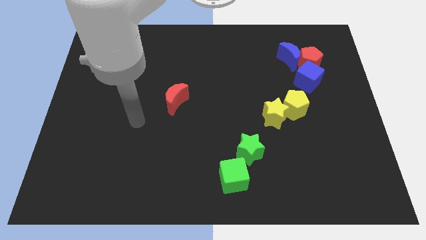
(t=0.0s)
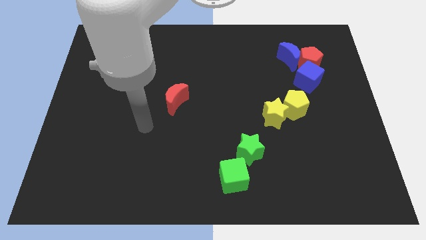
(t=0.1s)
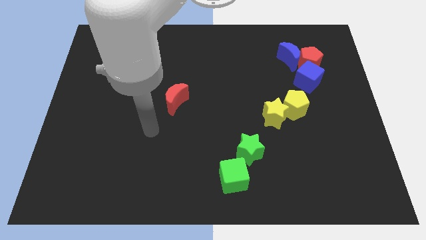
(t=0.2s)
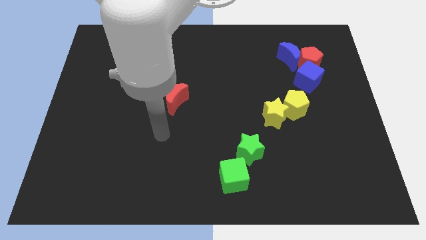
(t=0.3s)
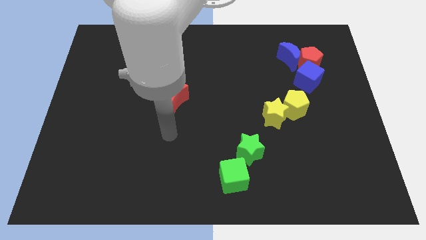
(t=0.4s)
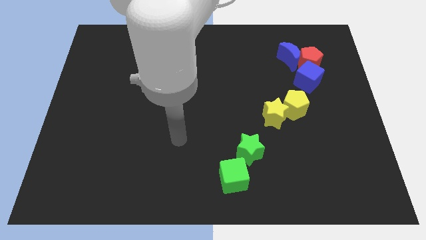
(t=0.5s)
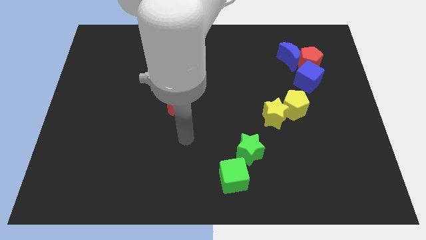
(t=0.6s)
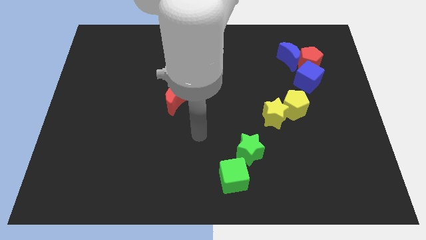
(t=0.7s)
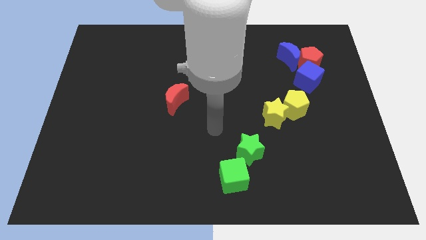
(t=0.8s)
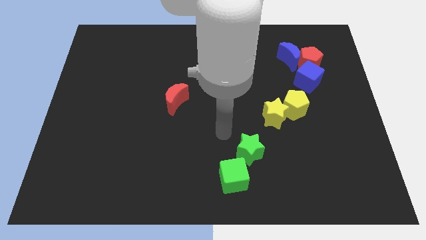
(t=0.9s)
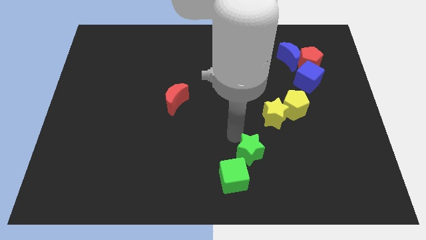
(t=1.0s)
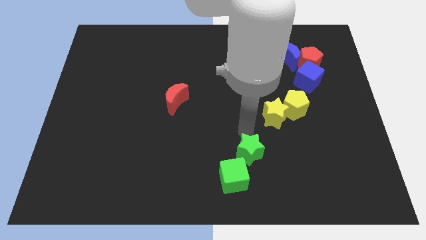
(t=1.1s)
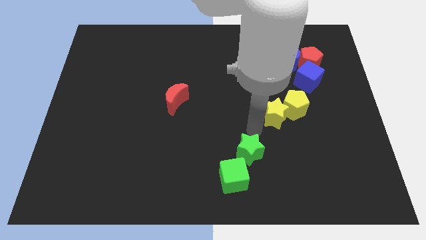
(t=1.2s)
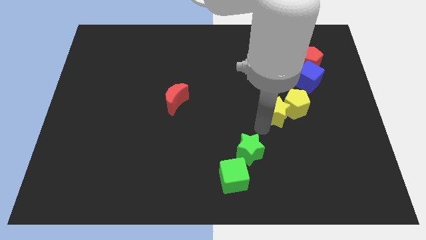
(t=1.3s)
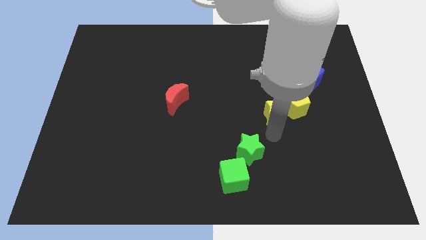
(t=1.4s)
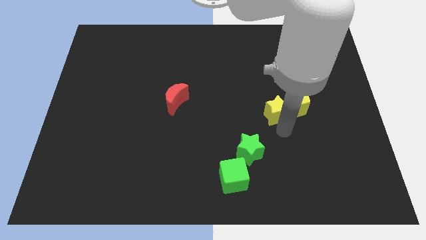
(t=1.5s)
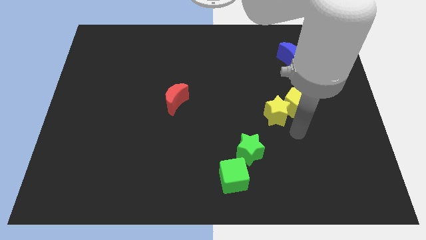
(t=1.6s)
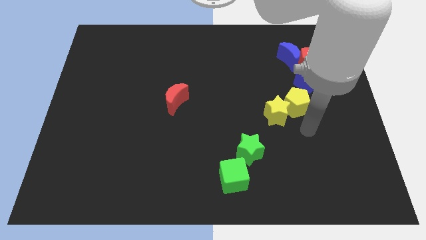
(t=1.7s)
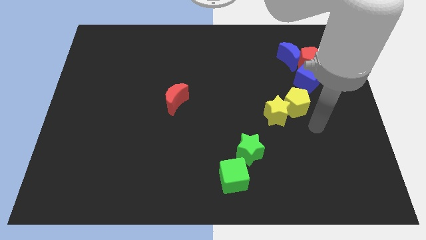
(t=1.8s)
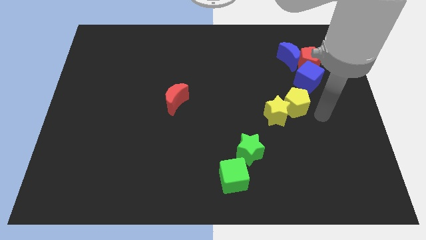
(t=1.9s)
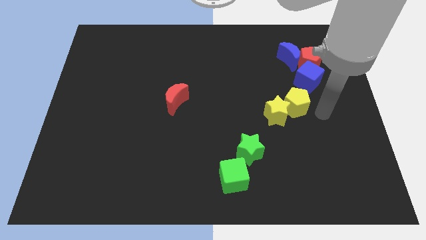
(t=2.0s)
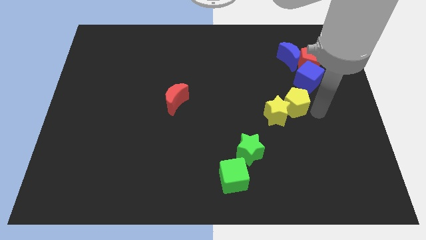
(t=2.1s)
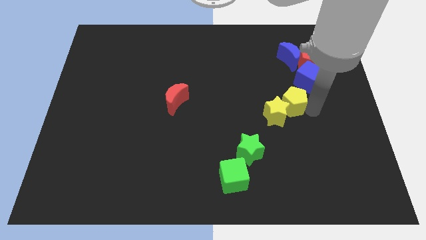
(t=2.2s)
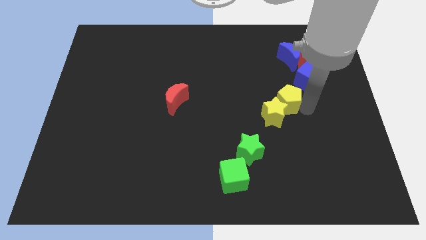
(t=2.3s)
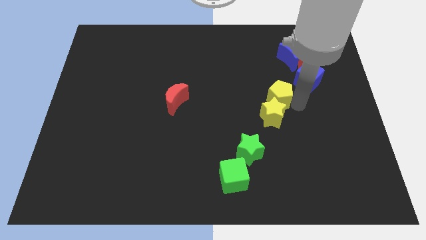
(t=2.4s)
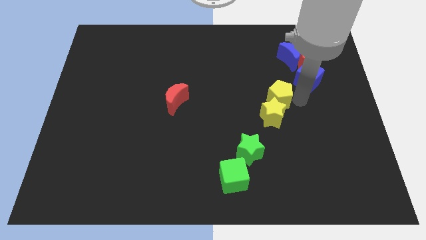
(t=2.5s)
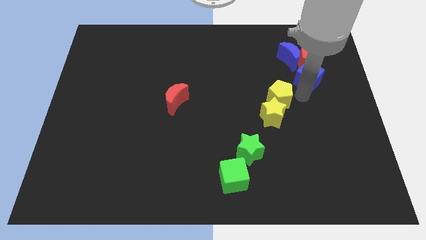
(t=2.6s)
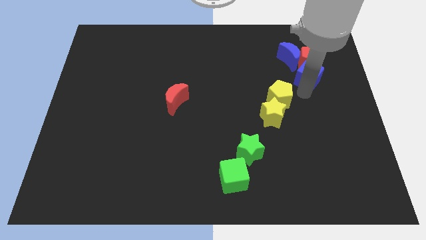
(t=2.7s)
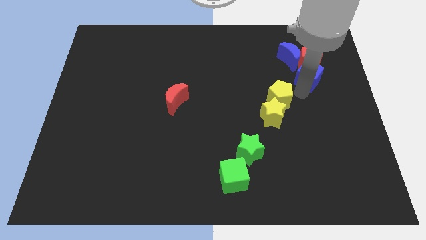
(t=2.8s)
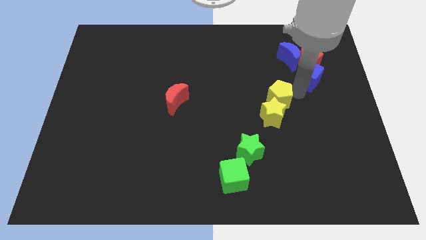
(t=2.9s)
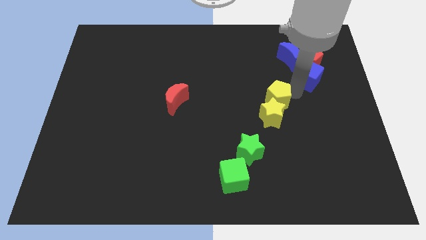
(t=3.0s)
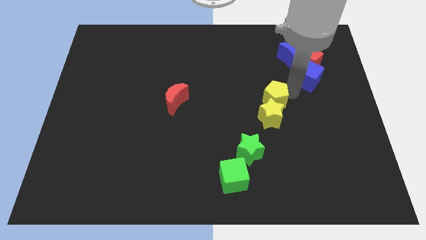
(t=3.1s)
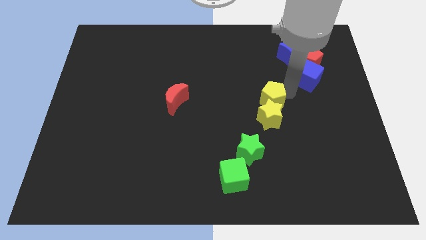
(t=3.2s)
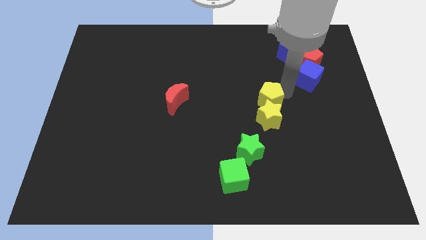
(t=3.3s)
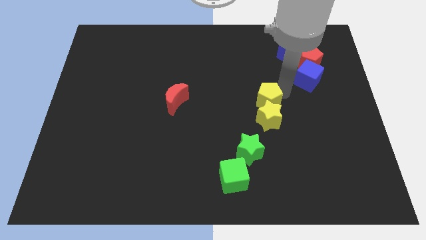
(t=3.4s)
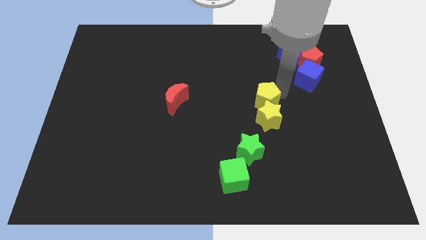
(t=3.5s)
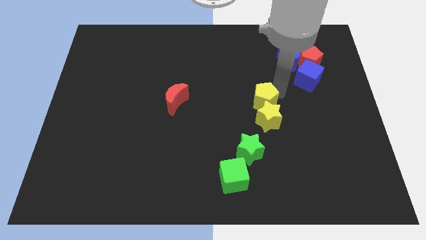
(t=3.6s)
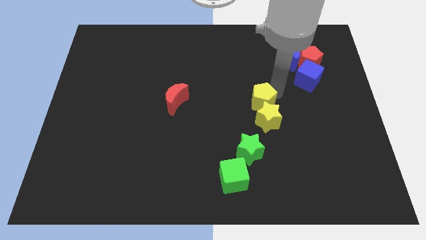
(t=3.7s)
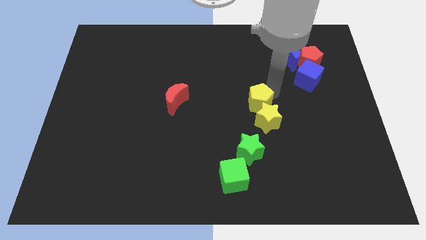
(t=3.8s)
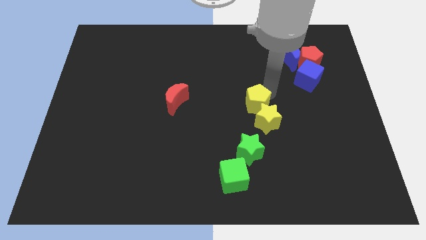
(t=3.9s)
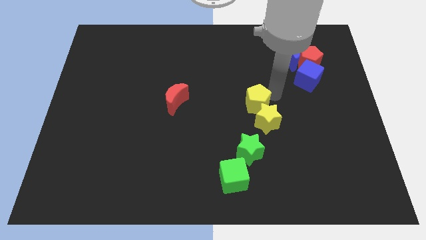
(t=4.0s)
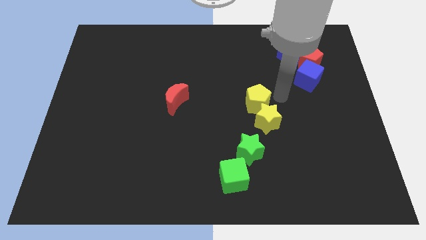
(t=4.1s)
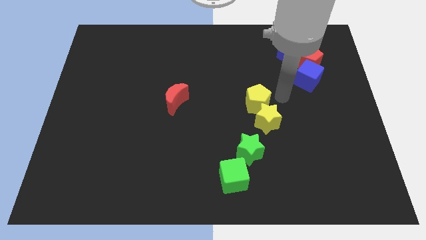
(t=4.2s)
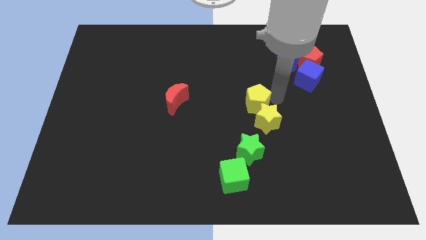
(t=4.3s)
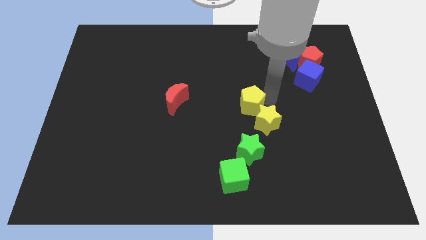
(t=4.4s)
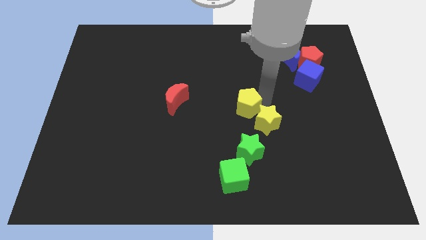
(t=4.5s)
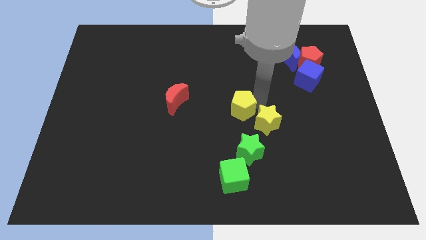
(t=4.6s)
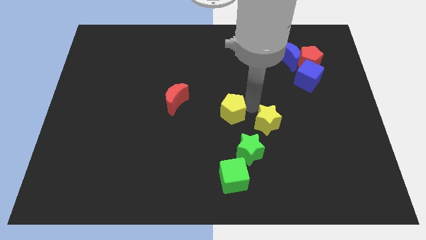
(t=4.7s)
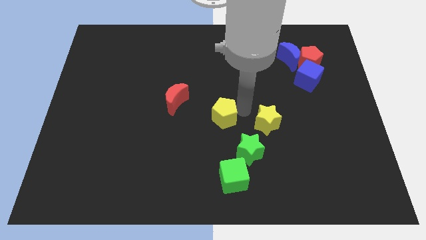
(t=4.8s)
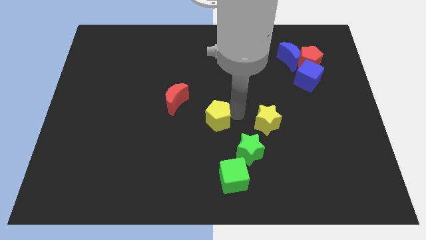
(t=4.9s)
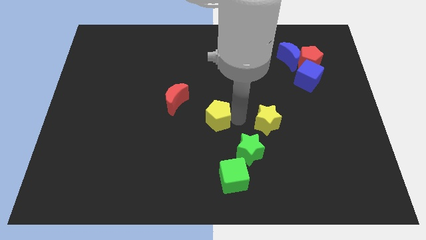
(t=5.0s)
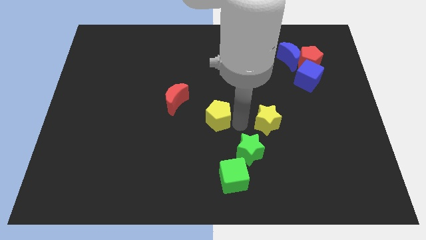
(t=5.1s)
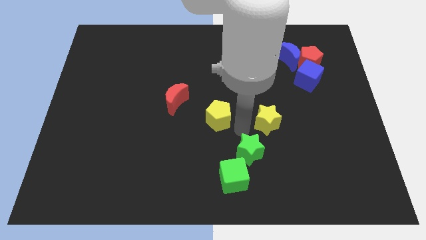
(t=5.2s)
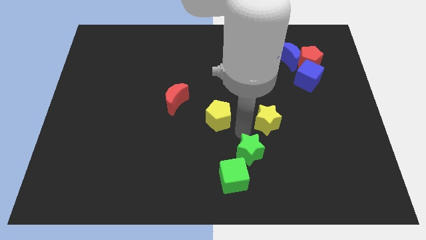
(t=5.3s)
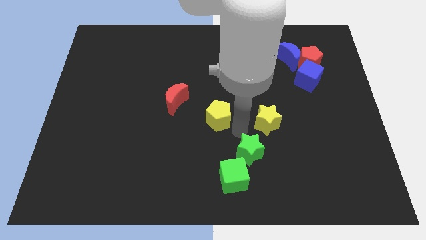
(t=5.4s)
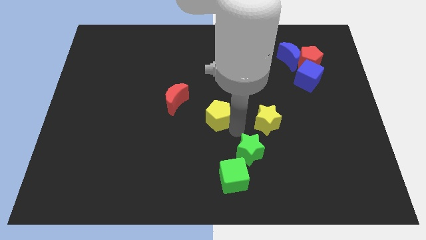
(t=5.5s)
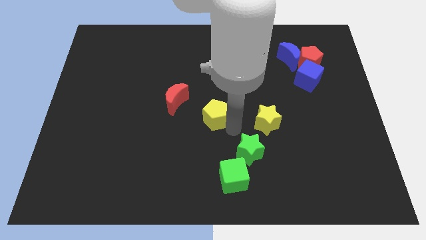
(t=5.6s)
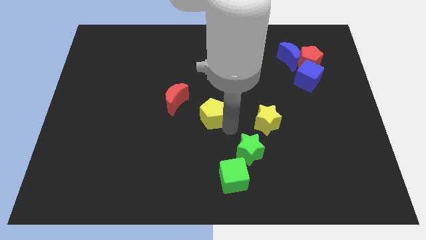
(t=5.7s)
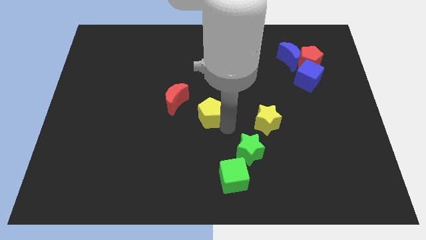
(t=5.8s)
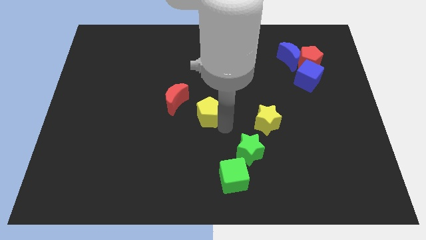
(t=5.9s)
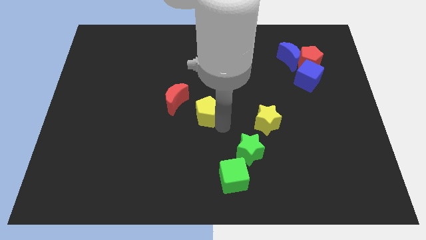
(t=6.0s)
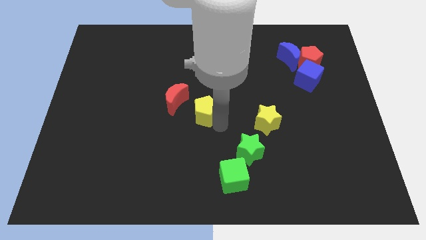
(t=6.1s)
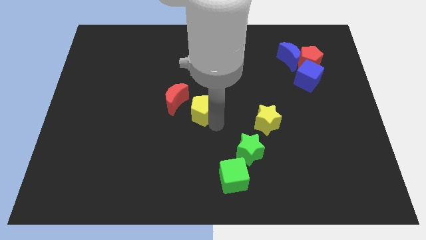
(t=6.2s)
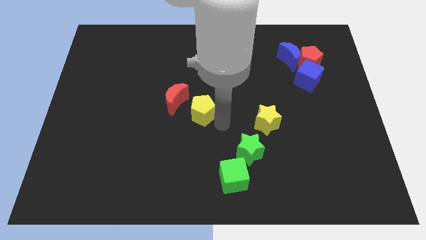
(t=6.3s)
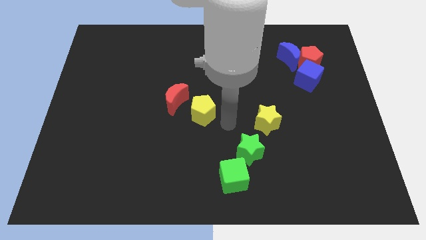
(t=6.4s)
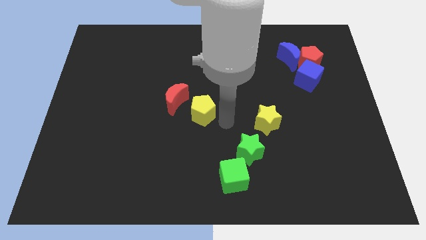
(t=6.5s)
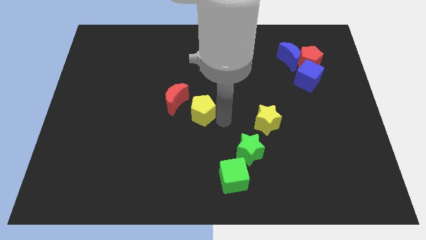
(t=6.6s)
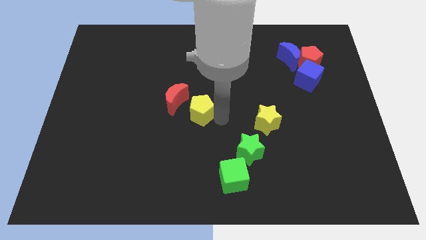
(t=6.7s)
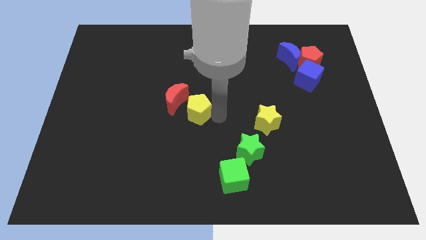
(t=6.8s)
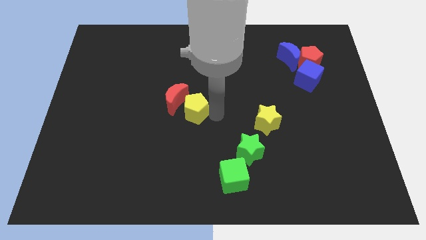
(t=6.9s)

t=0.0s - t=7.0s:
put the yellow pentagon to the red moon
